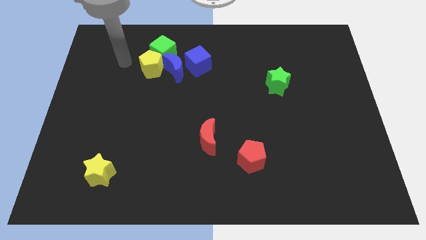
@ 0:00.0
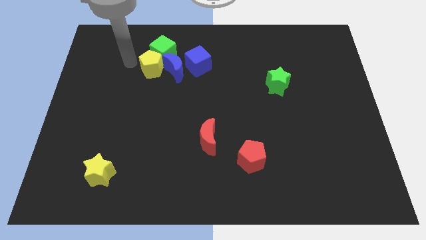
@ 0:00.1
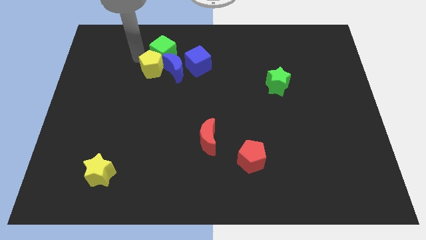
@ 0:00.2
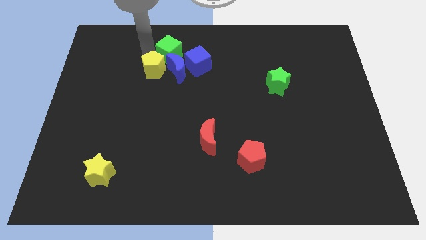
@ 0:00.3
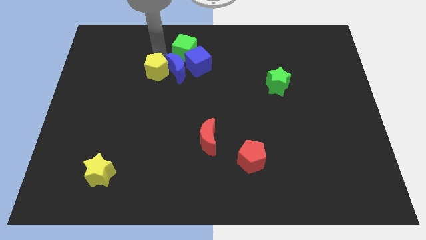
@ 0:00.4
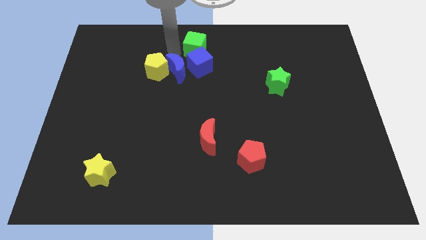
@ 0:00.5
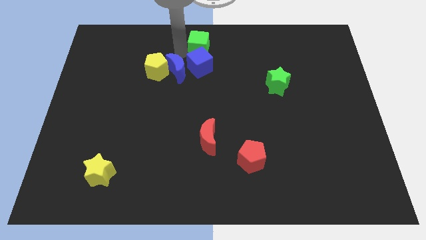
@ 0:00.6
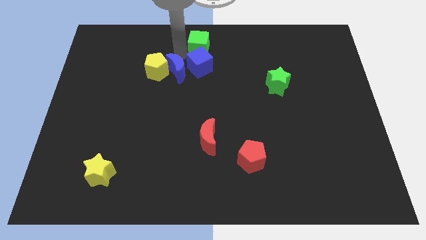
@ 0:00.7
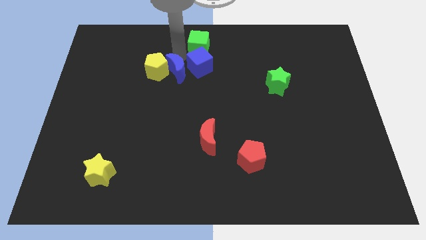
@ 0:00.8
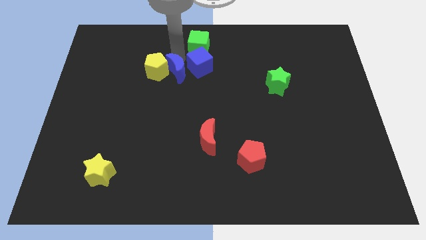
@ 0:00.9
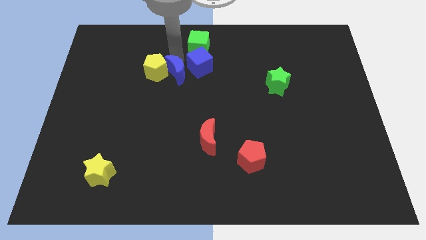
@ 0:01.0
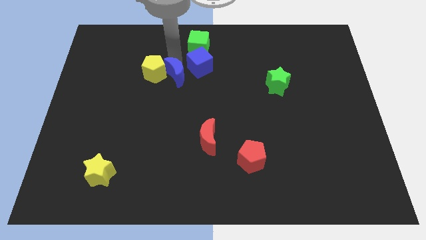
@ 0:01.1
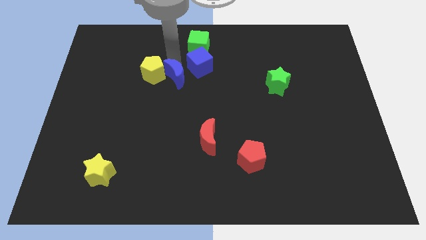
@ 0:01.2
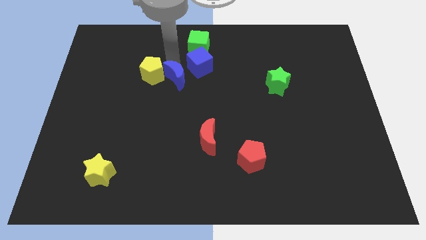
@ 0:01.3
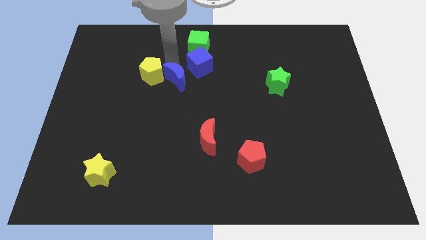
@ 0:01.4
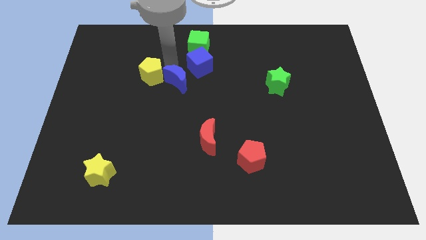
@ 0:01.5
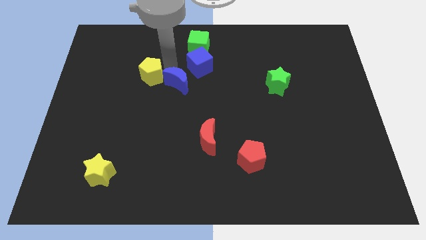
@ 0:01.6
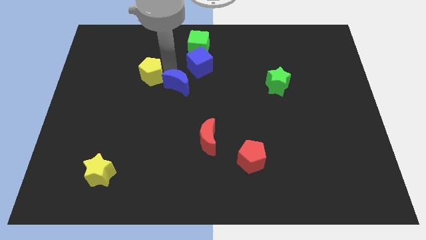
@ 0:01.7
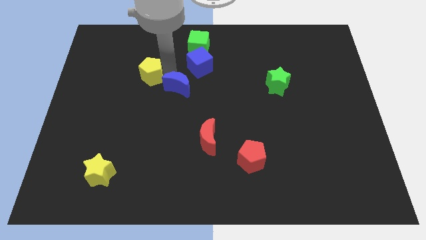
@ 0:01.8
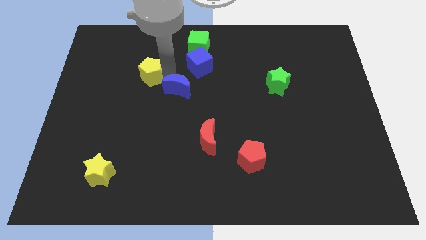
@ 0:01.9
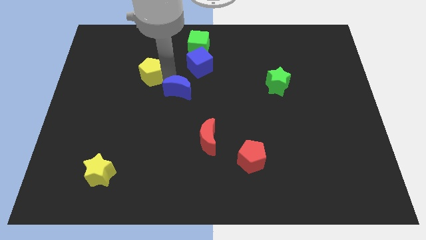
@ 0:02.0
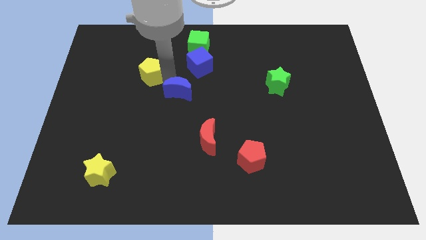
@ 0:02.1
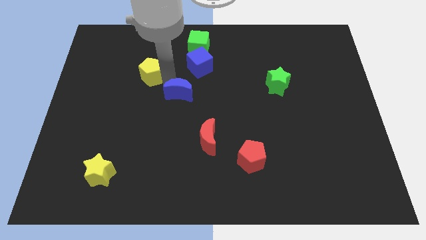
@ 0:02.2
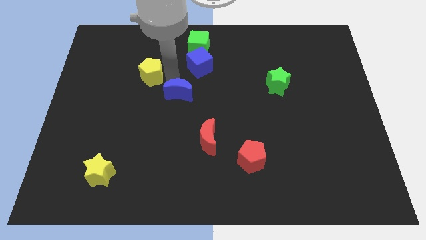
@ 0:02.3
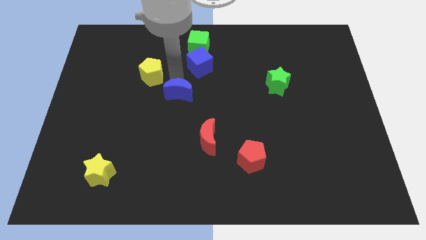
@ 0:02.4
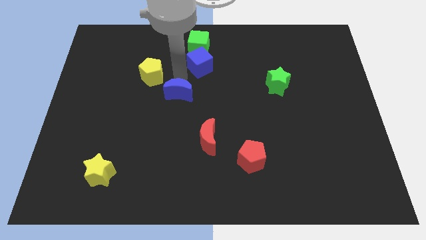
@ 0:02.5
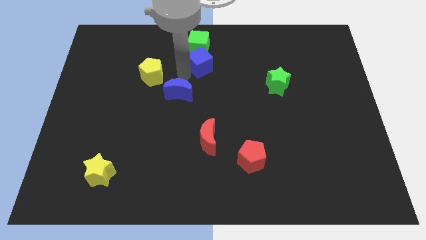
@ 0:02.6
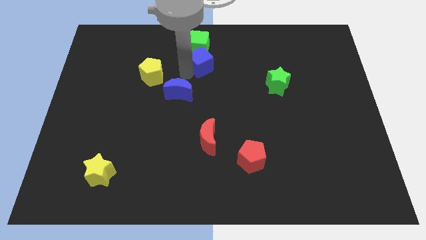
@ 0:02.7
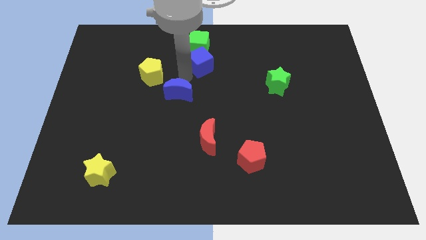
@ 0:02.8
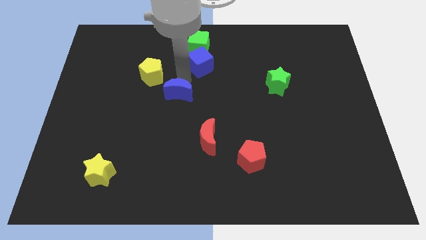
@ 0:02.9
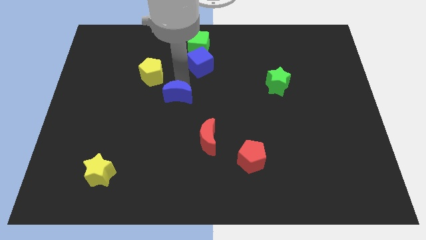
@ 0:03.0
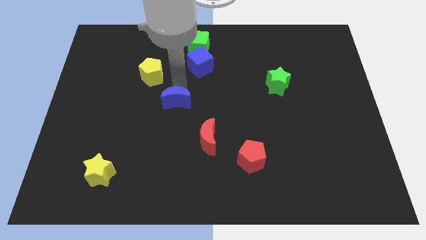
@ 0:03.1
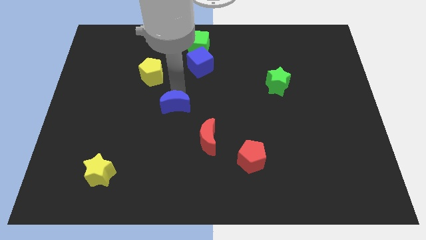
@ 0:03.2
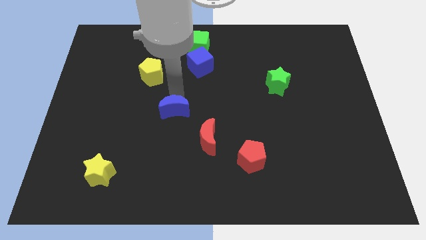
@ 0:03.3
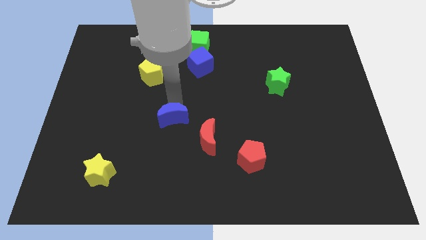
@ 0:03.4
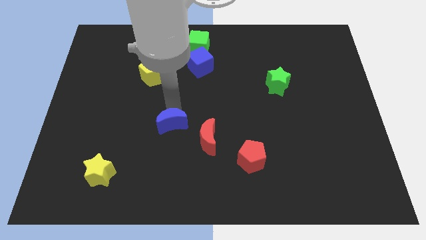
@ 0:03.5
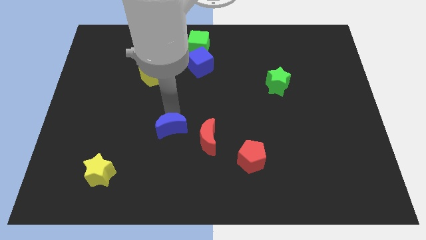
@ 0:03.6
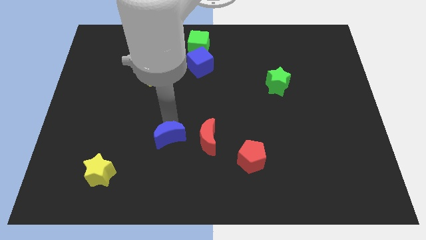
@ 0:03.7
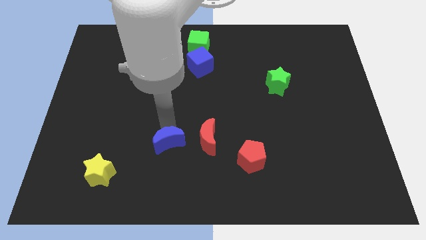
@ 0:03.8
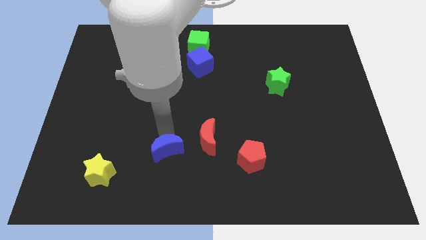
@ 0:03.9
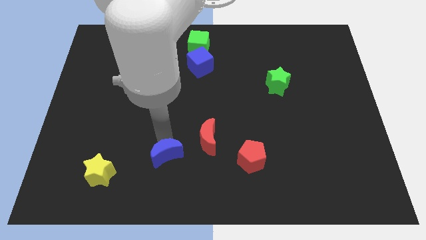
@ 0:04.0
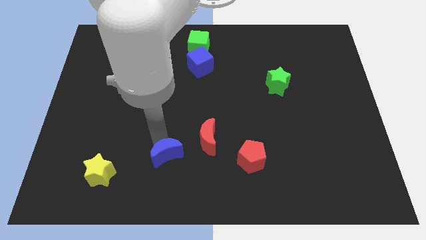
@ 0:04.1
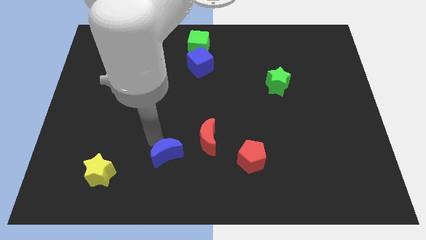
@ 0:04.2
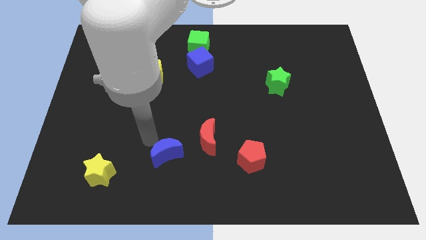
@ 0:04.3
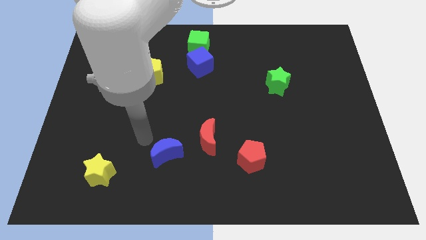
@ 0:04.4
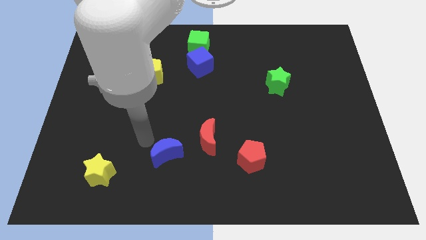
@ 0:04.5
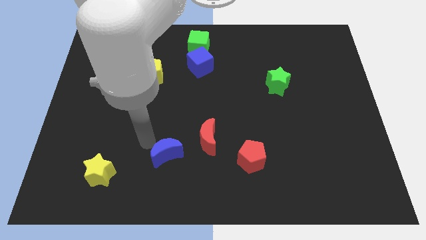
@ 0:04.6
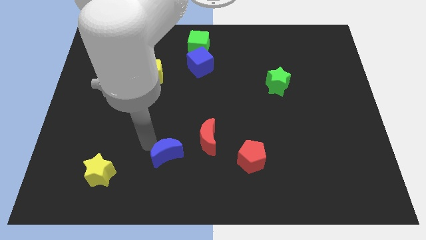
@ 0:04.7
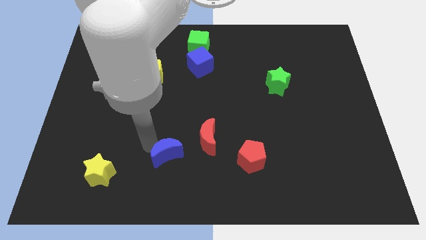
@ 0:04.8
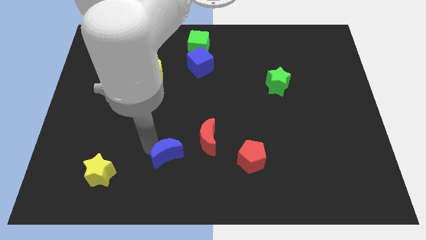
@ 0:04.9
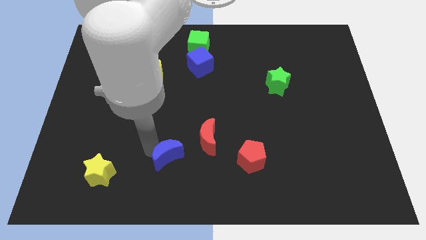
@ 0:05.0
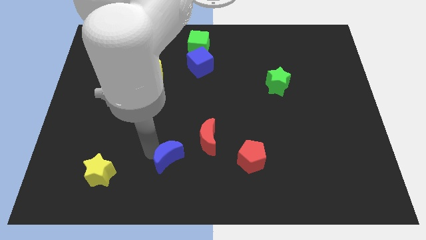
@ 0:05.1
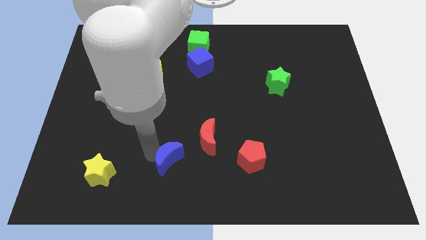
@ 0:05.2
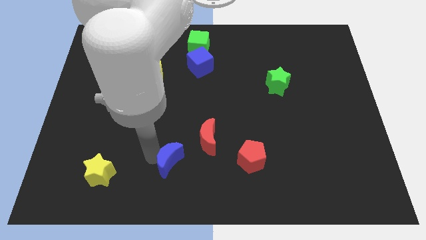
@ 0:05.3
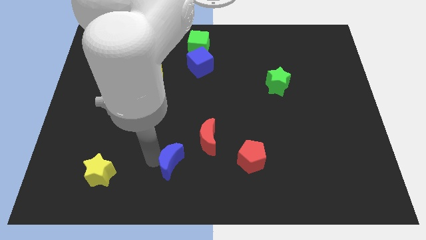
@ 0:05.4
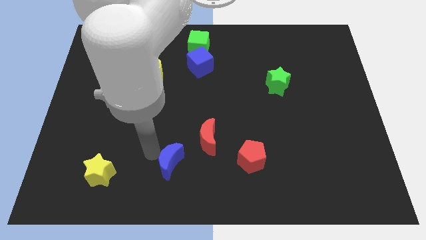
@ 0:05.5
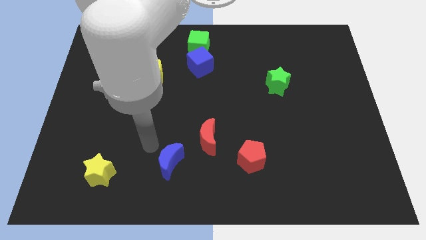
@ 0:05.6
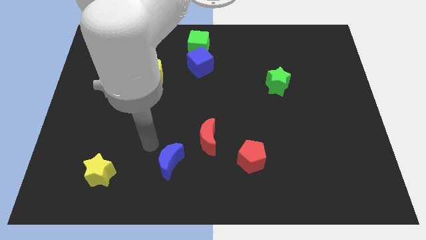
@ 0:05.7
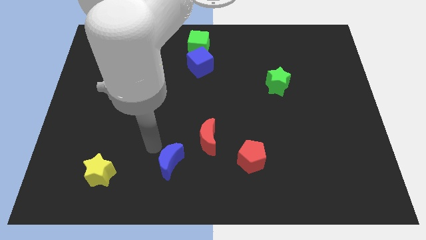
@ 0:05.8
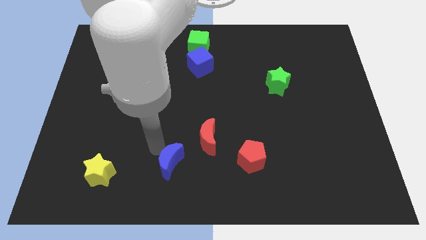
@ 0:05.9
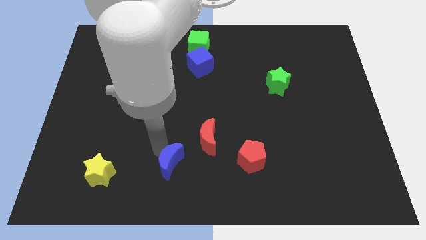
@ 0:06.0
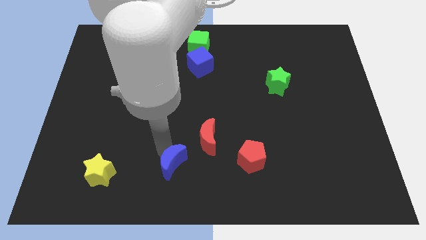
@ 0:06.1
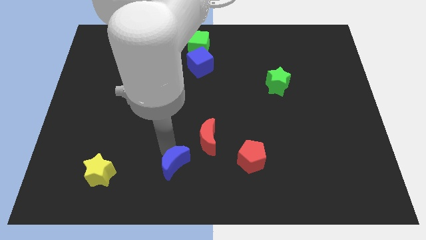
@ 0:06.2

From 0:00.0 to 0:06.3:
move the blue moon to the bottom

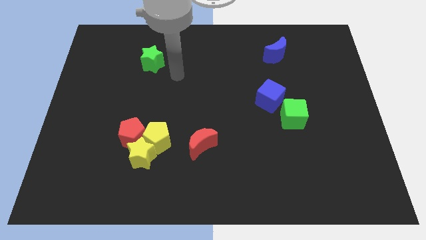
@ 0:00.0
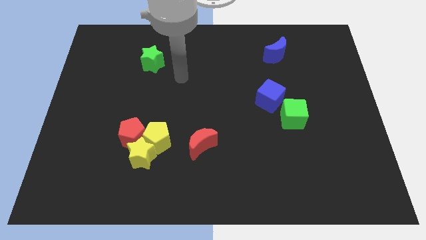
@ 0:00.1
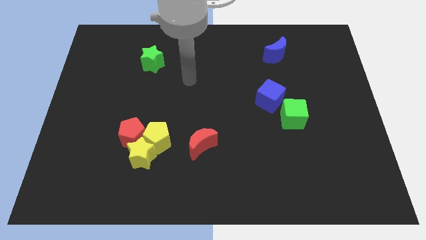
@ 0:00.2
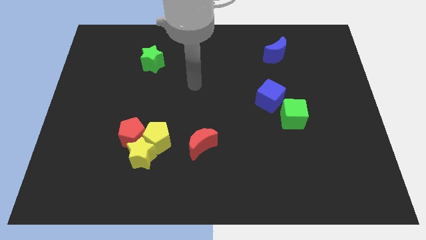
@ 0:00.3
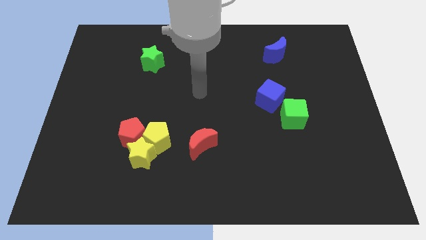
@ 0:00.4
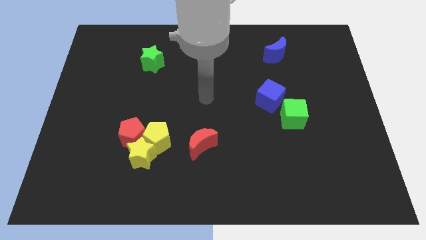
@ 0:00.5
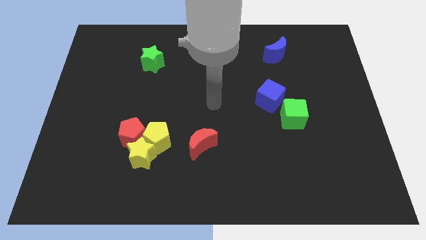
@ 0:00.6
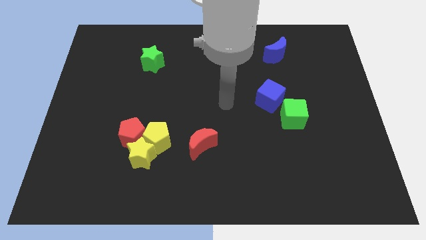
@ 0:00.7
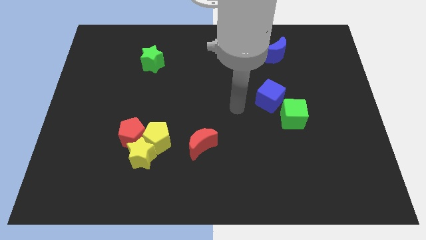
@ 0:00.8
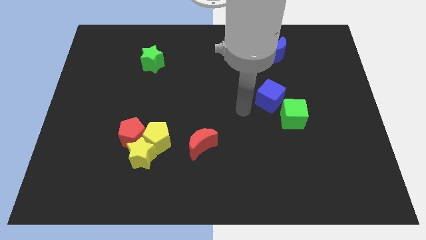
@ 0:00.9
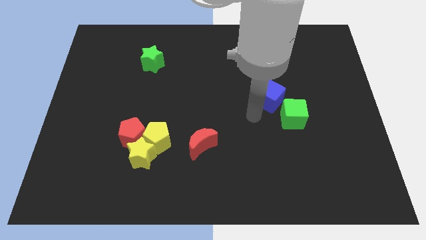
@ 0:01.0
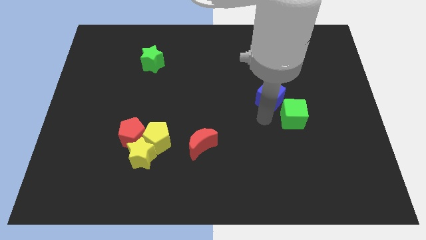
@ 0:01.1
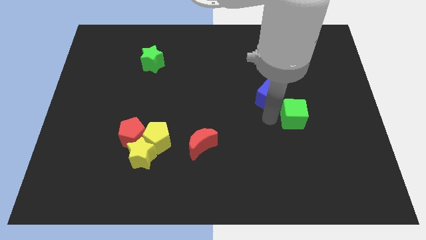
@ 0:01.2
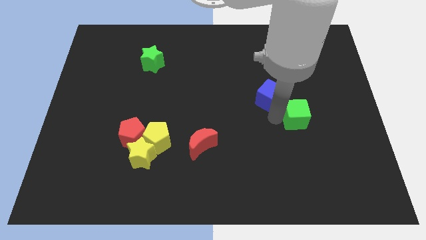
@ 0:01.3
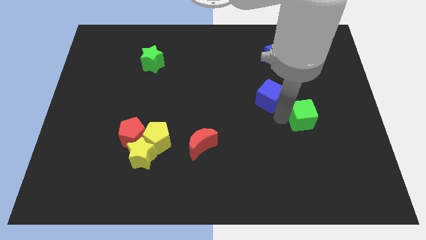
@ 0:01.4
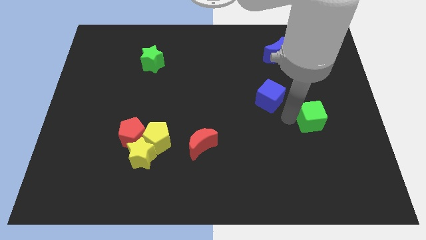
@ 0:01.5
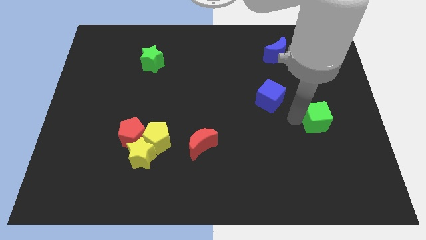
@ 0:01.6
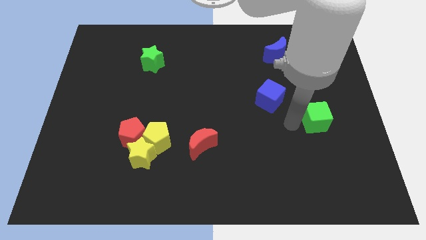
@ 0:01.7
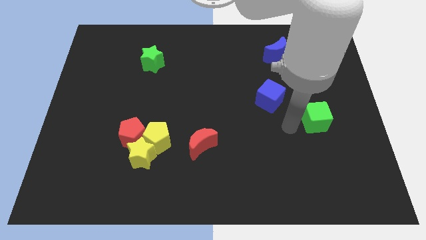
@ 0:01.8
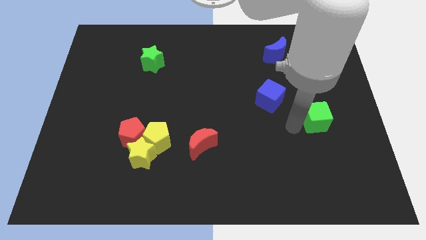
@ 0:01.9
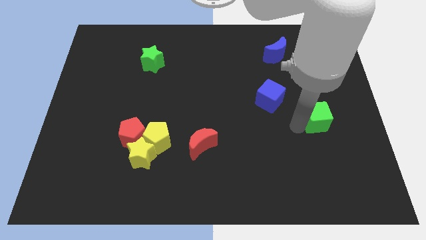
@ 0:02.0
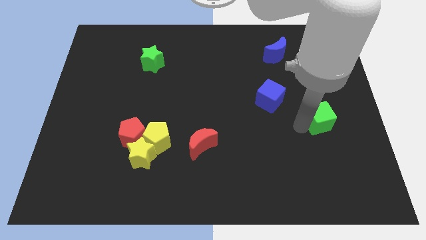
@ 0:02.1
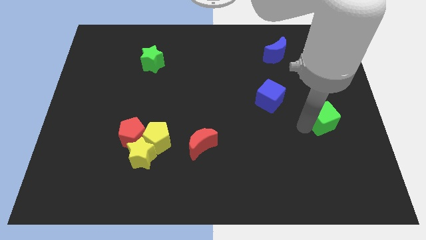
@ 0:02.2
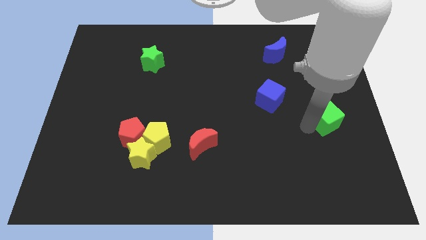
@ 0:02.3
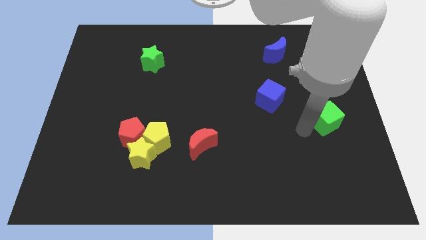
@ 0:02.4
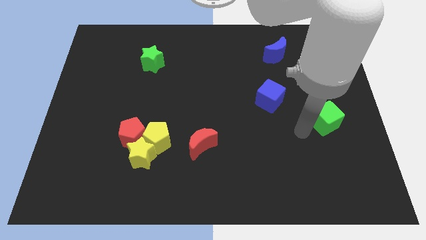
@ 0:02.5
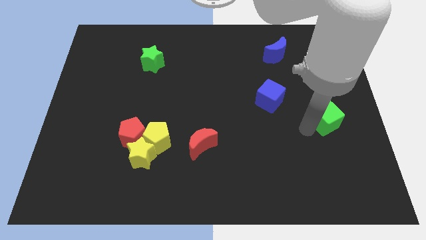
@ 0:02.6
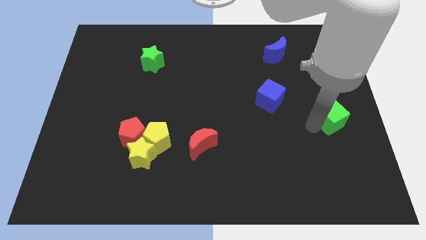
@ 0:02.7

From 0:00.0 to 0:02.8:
move the green cube to the right side
